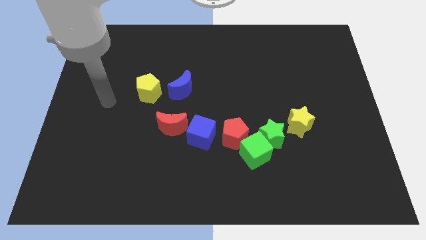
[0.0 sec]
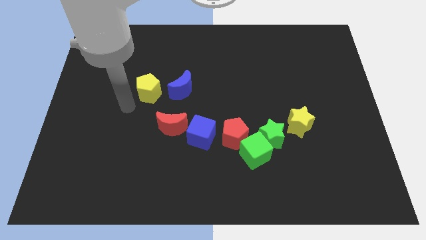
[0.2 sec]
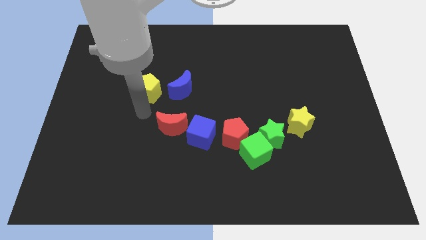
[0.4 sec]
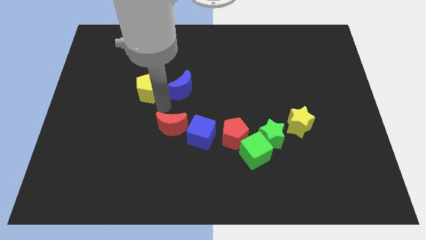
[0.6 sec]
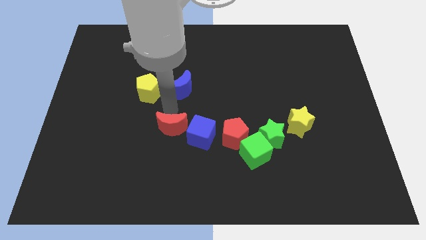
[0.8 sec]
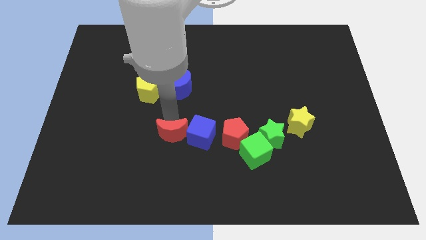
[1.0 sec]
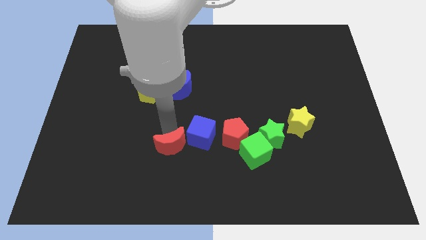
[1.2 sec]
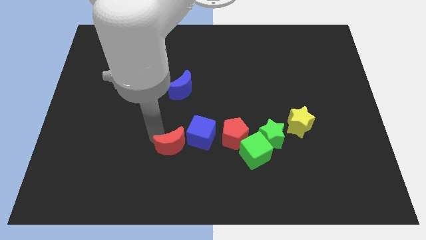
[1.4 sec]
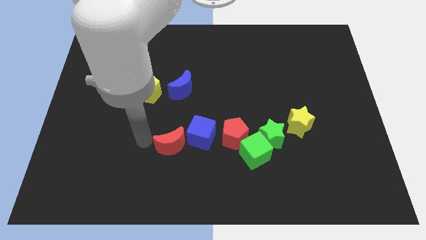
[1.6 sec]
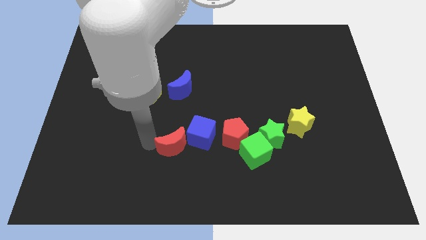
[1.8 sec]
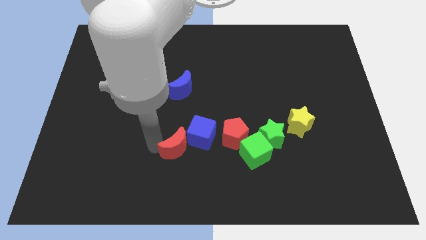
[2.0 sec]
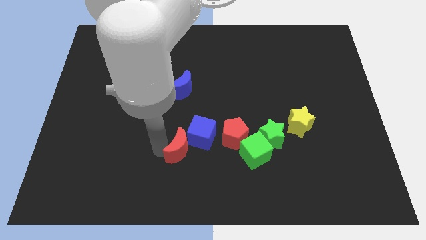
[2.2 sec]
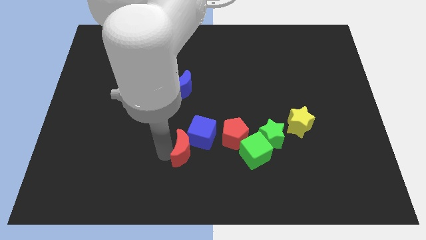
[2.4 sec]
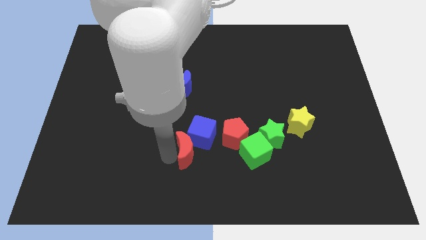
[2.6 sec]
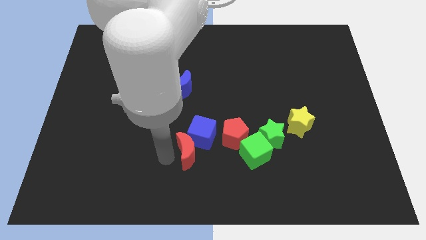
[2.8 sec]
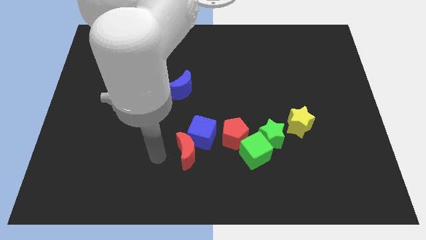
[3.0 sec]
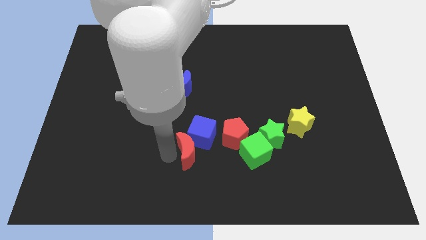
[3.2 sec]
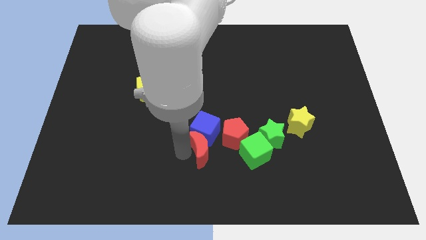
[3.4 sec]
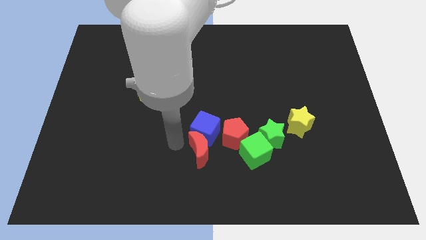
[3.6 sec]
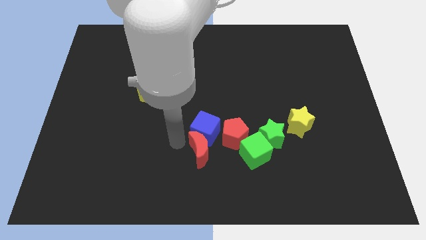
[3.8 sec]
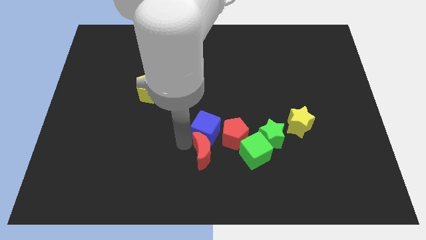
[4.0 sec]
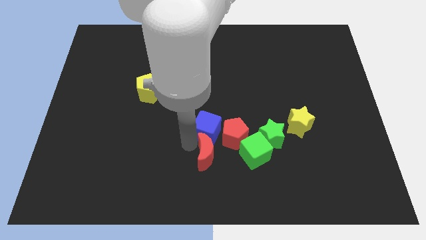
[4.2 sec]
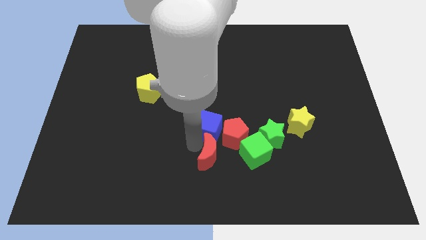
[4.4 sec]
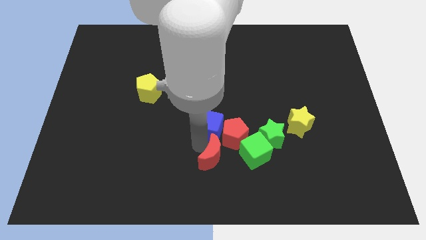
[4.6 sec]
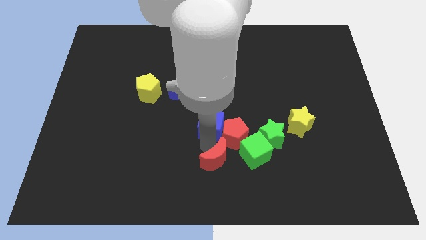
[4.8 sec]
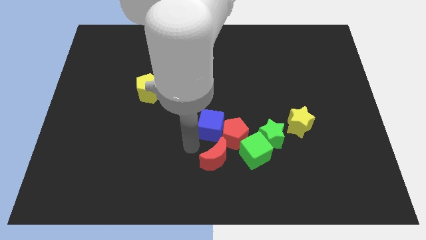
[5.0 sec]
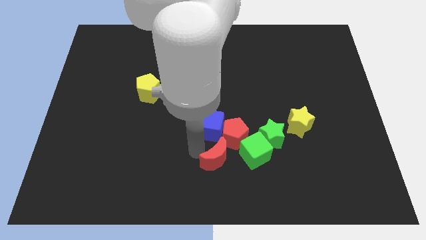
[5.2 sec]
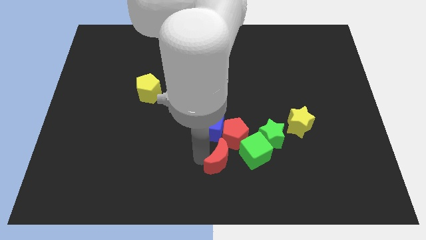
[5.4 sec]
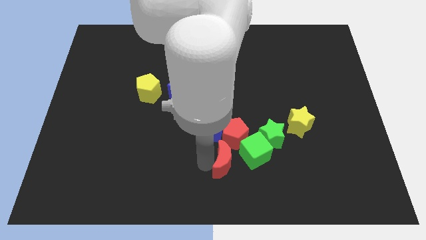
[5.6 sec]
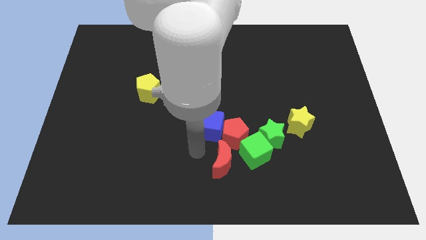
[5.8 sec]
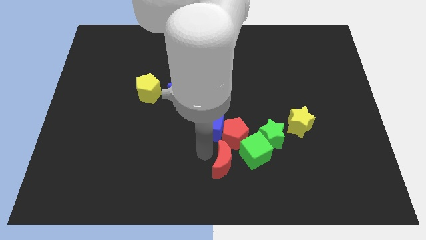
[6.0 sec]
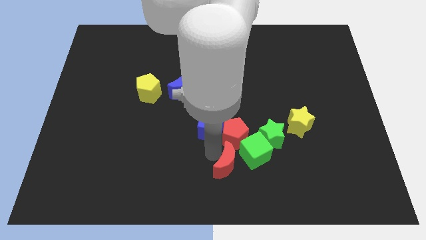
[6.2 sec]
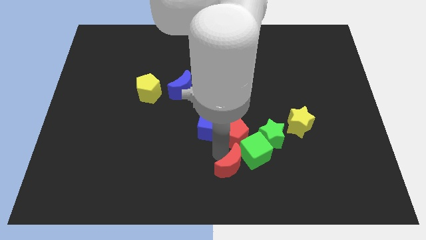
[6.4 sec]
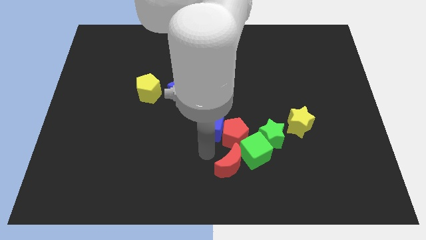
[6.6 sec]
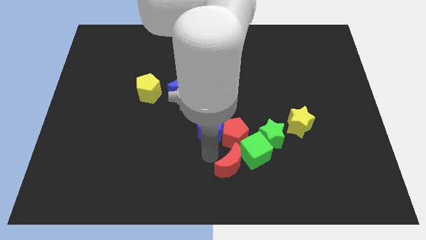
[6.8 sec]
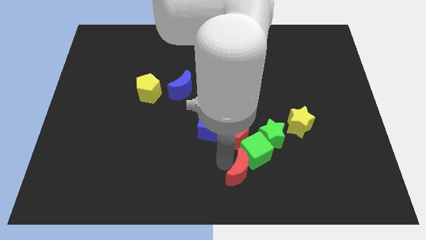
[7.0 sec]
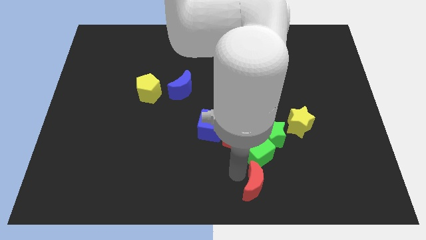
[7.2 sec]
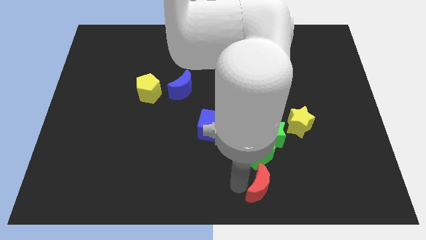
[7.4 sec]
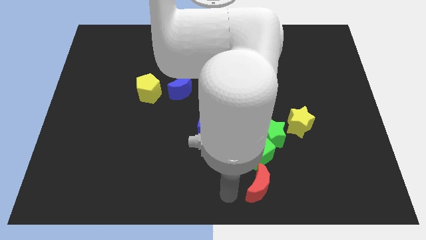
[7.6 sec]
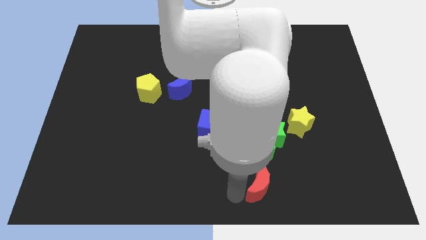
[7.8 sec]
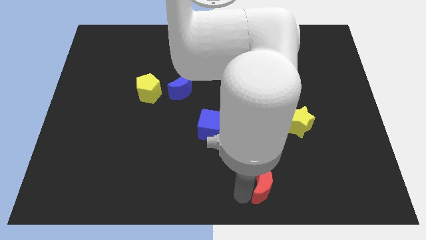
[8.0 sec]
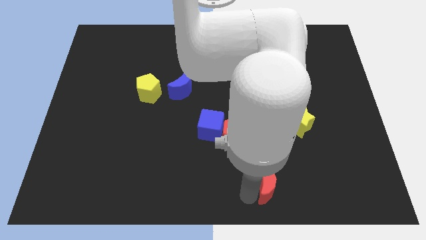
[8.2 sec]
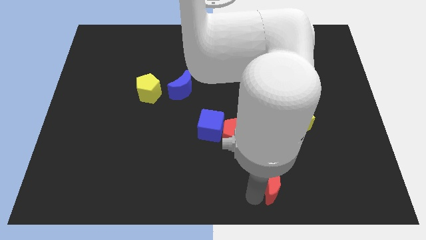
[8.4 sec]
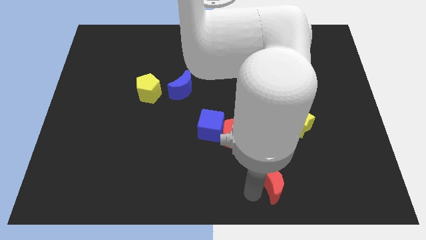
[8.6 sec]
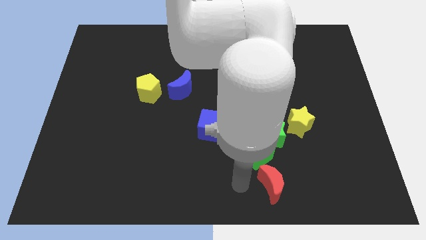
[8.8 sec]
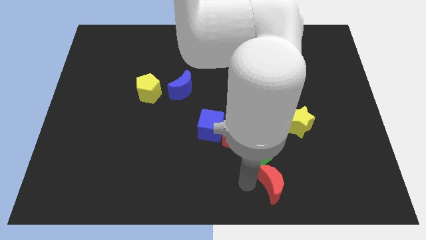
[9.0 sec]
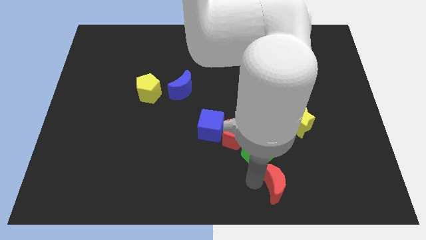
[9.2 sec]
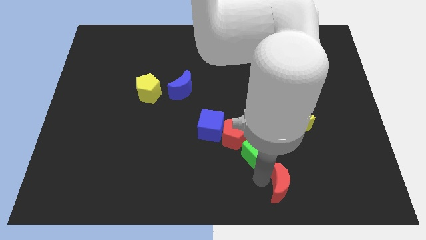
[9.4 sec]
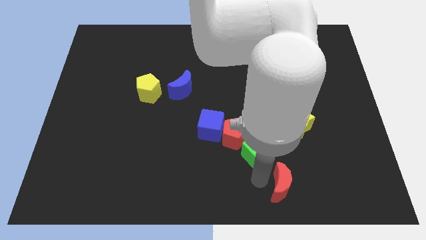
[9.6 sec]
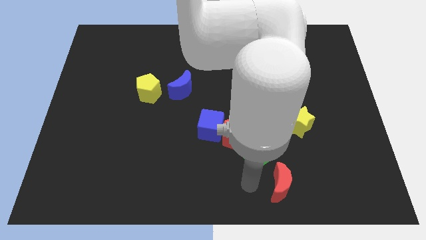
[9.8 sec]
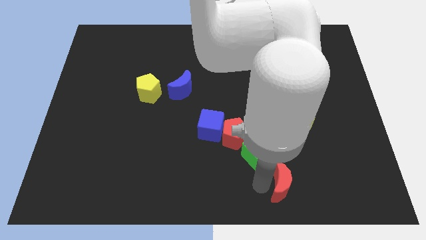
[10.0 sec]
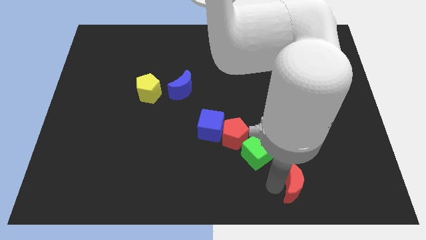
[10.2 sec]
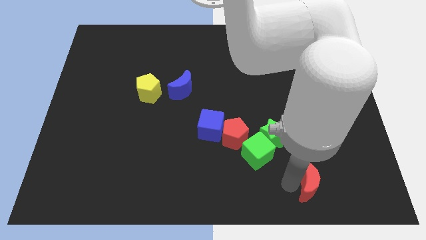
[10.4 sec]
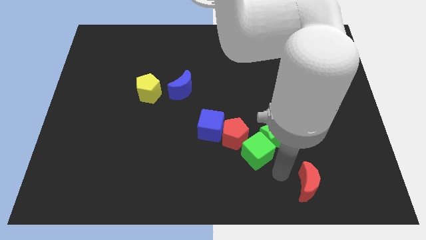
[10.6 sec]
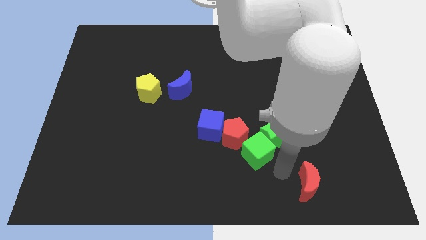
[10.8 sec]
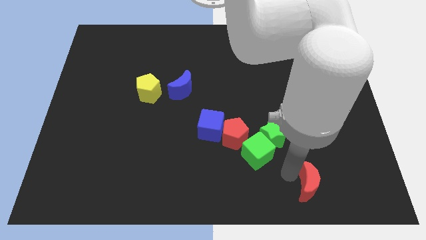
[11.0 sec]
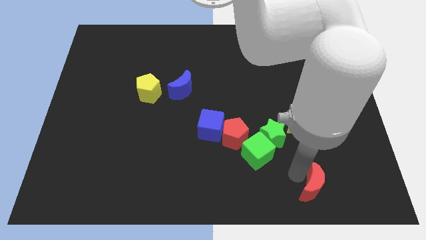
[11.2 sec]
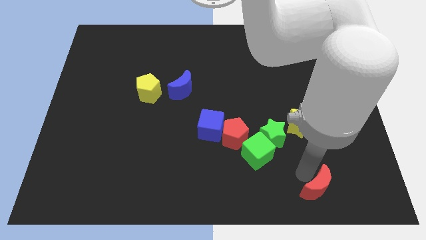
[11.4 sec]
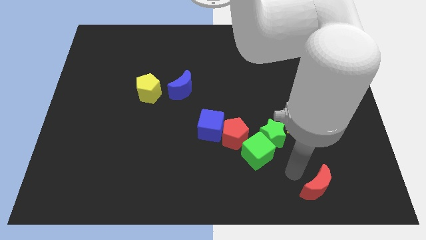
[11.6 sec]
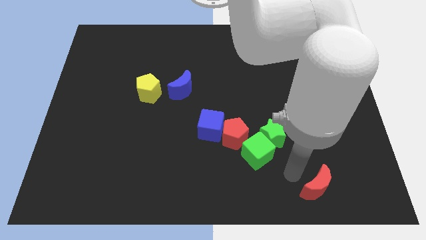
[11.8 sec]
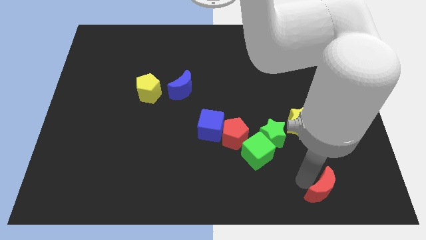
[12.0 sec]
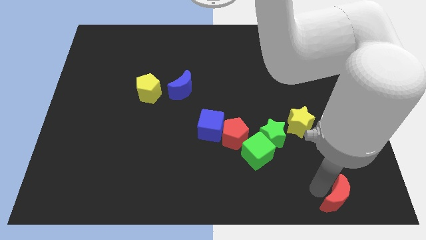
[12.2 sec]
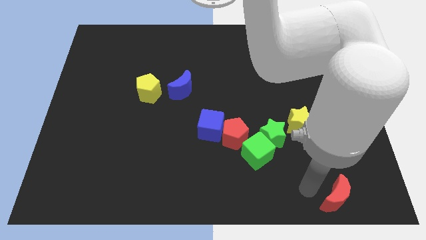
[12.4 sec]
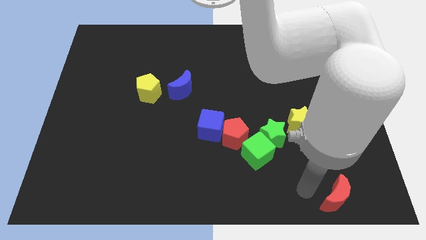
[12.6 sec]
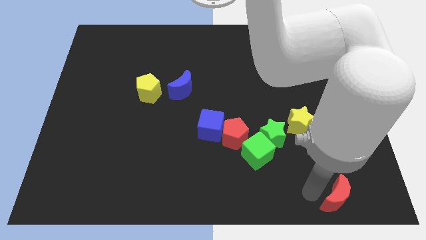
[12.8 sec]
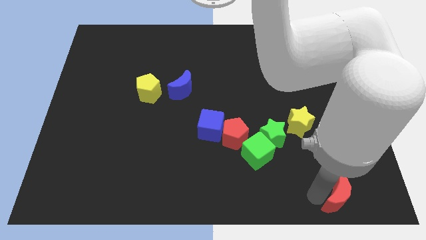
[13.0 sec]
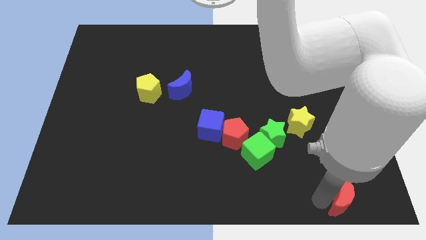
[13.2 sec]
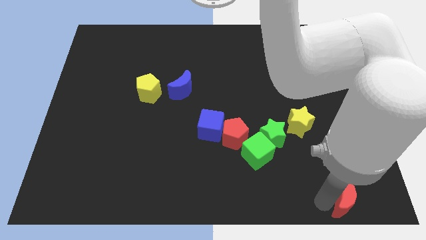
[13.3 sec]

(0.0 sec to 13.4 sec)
push the red moon to the bottom right of the board
